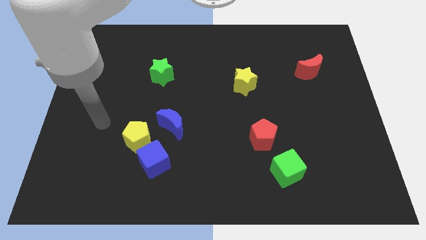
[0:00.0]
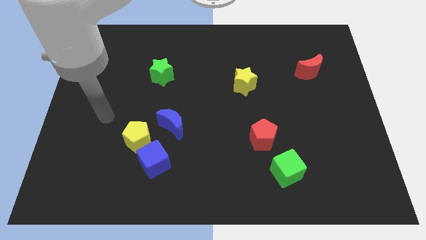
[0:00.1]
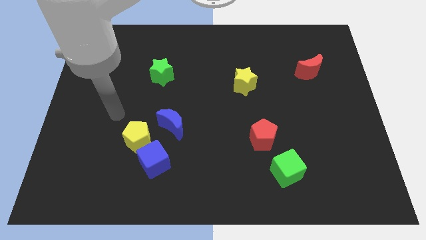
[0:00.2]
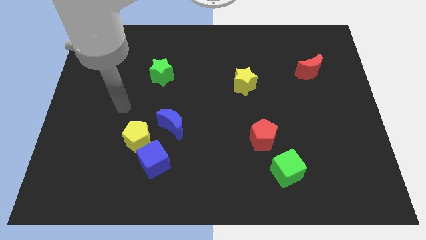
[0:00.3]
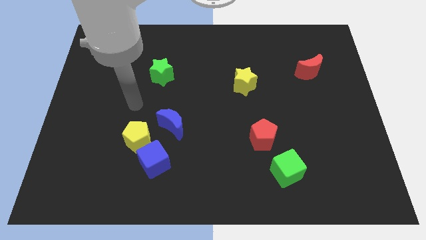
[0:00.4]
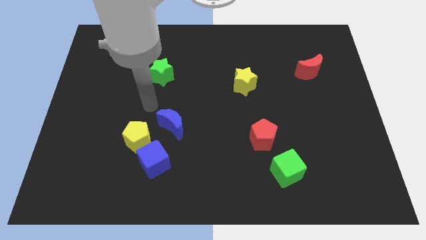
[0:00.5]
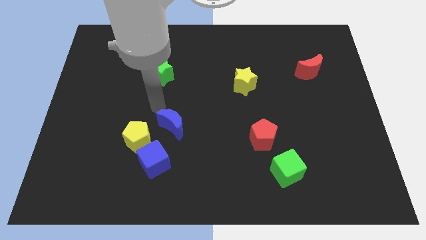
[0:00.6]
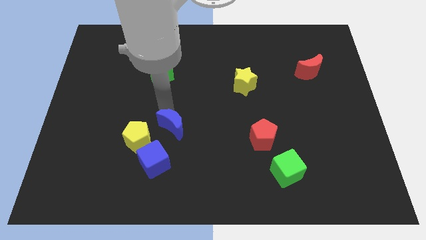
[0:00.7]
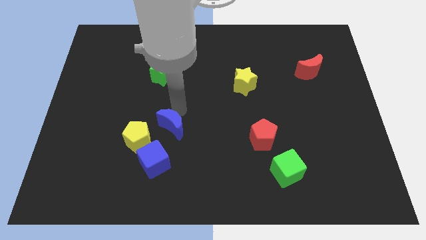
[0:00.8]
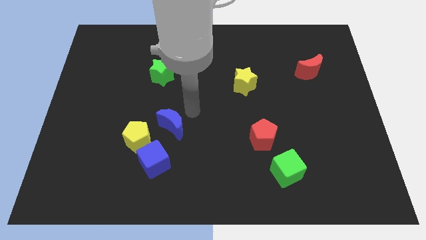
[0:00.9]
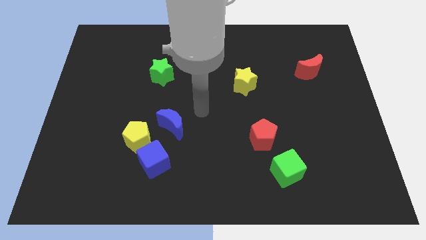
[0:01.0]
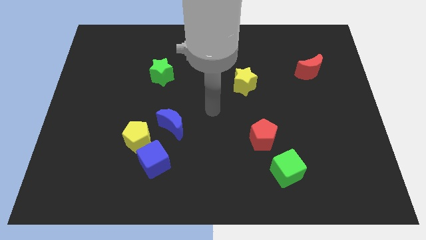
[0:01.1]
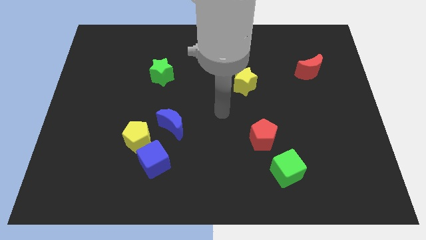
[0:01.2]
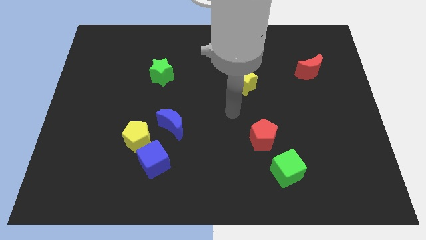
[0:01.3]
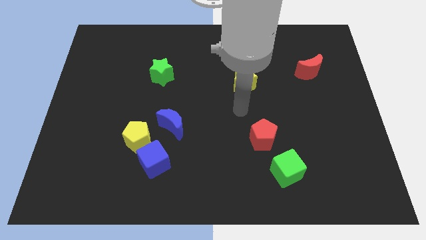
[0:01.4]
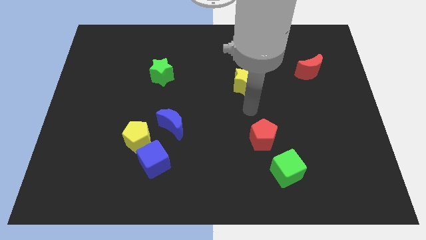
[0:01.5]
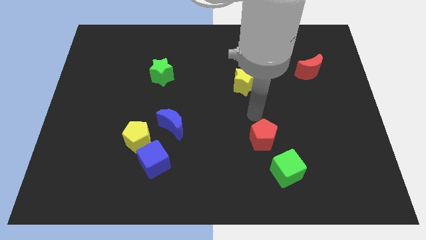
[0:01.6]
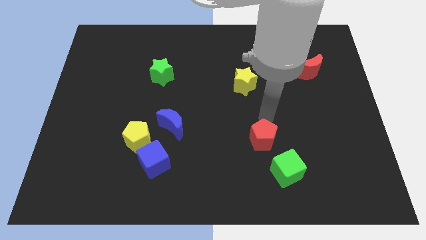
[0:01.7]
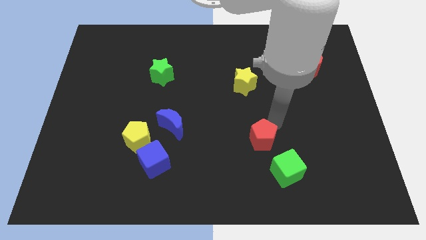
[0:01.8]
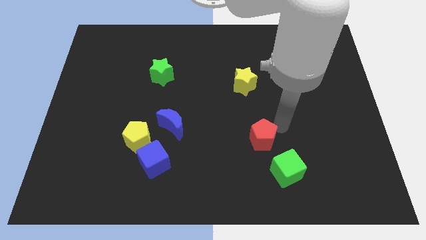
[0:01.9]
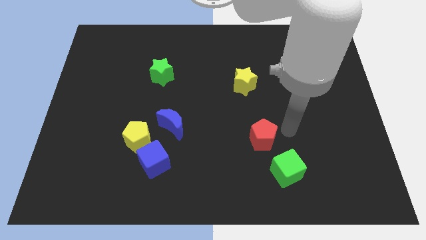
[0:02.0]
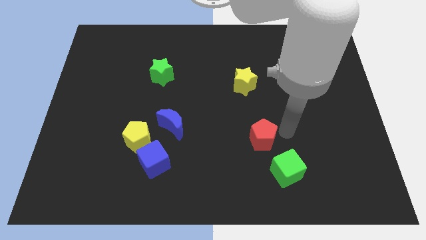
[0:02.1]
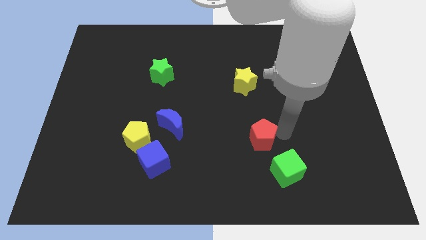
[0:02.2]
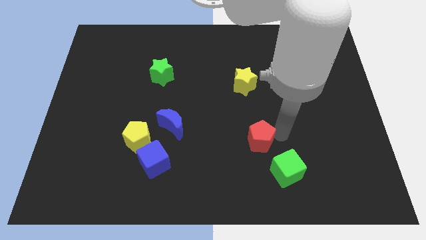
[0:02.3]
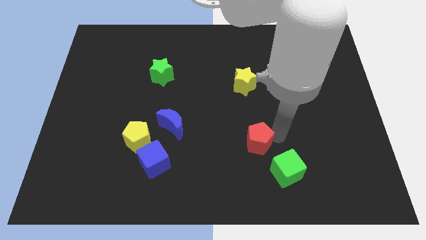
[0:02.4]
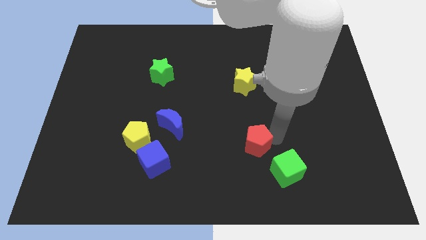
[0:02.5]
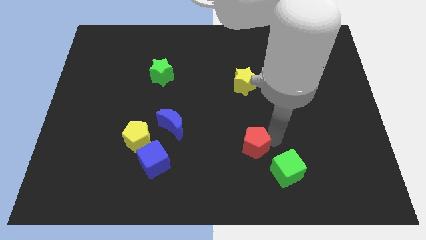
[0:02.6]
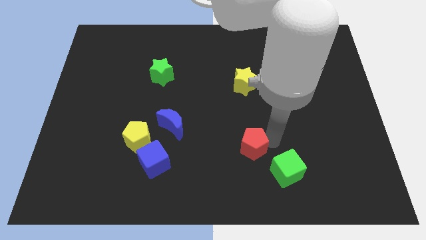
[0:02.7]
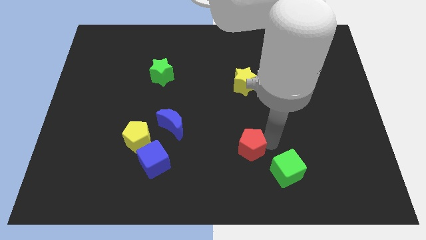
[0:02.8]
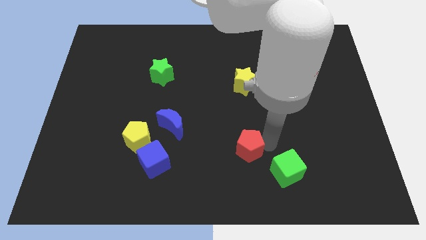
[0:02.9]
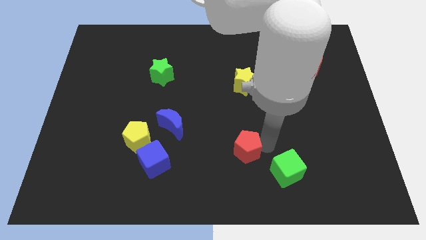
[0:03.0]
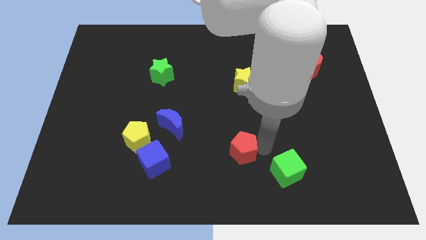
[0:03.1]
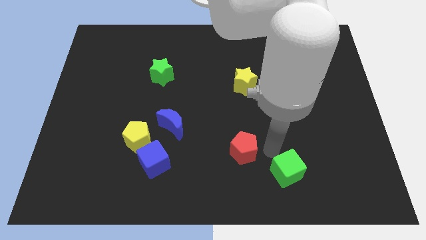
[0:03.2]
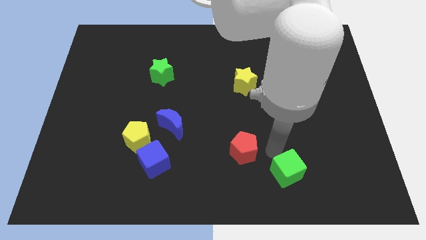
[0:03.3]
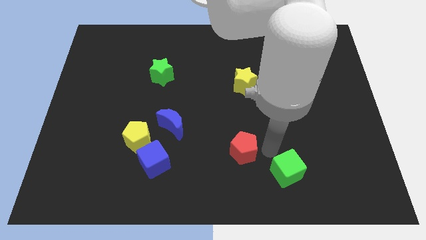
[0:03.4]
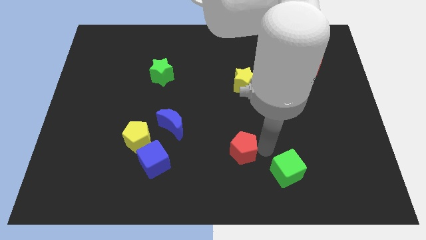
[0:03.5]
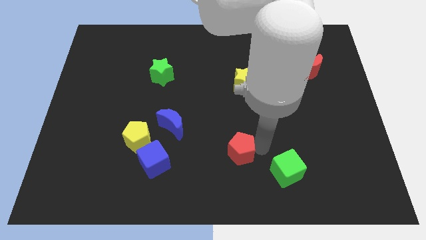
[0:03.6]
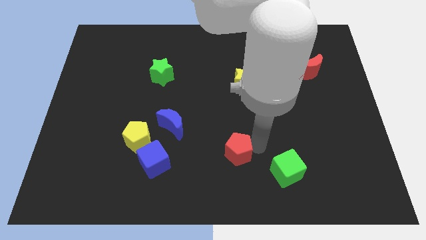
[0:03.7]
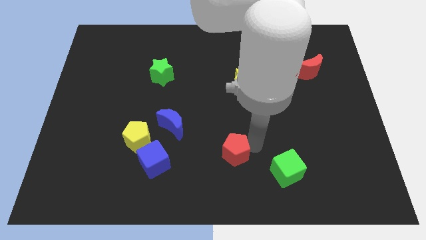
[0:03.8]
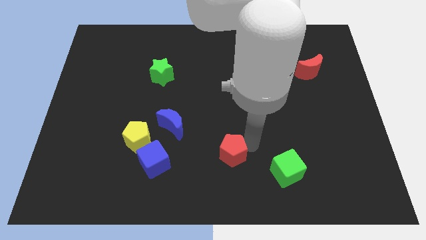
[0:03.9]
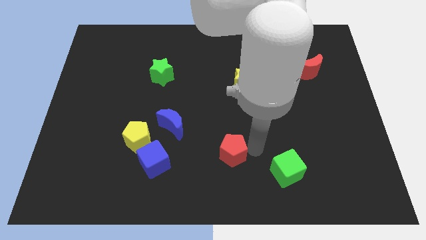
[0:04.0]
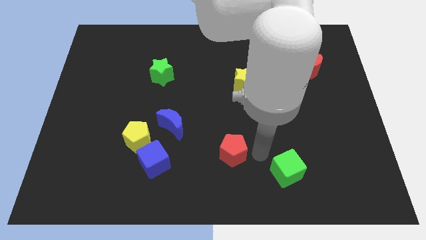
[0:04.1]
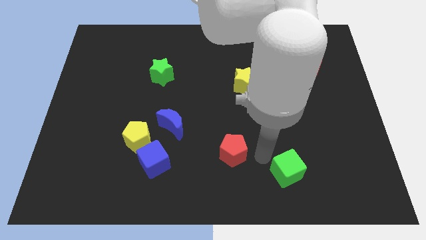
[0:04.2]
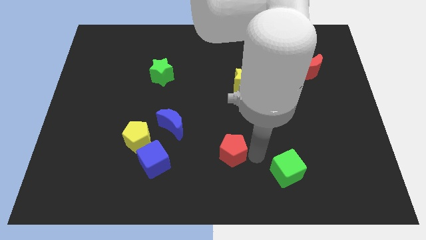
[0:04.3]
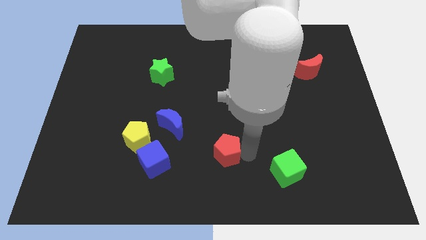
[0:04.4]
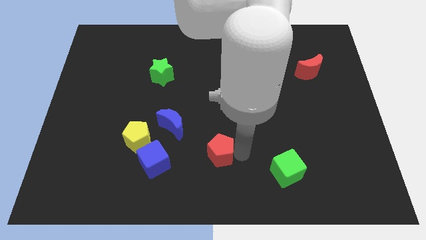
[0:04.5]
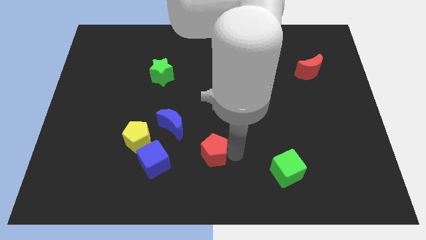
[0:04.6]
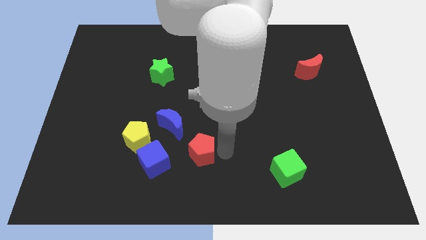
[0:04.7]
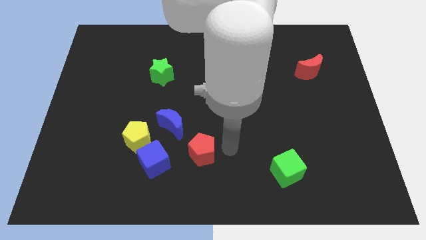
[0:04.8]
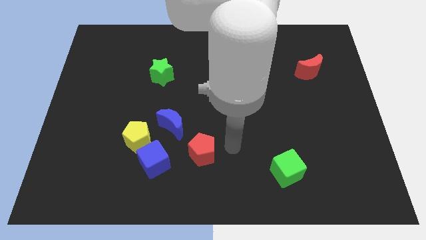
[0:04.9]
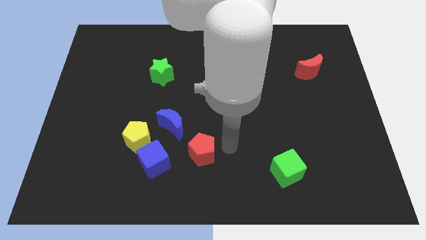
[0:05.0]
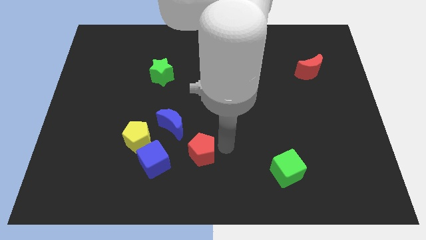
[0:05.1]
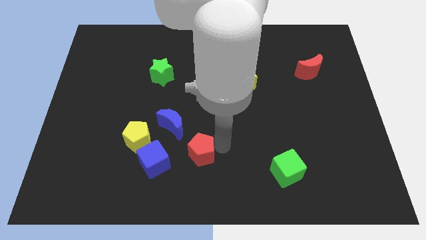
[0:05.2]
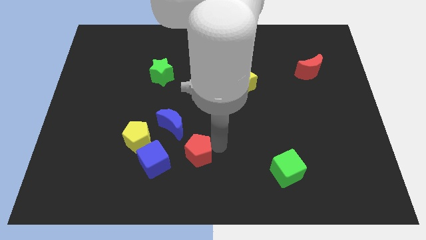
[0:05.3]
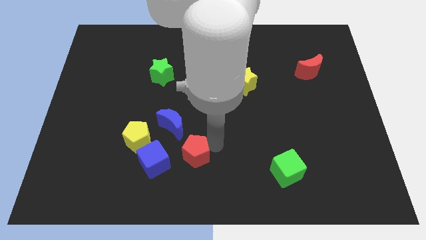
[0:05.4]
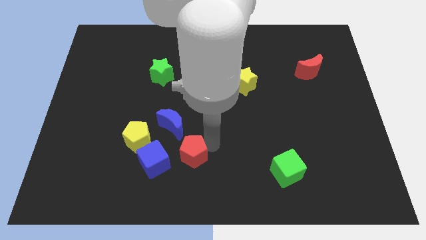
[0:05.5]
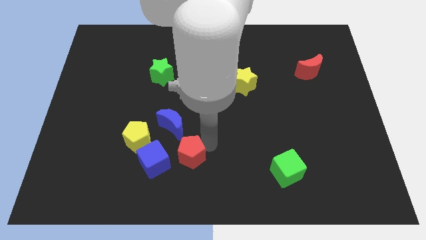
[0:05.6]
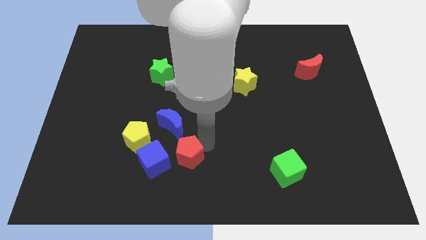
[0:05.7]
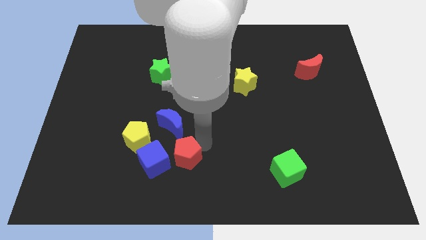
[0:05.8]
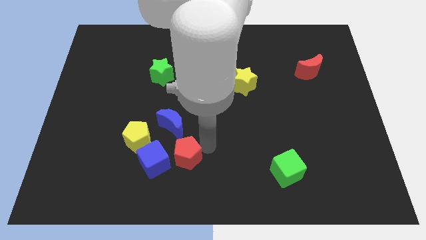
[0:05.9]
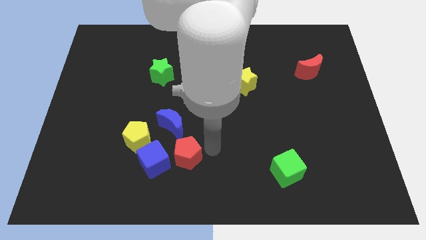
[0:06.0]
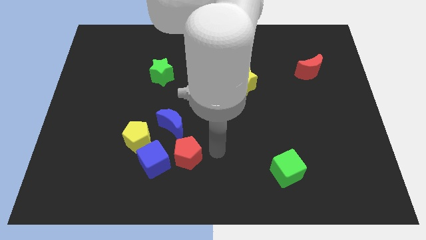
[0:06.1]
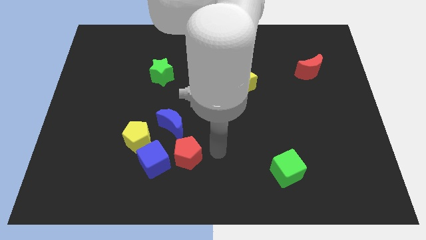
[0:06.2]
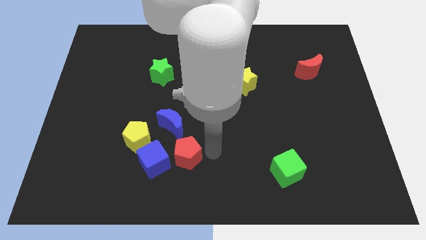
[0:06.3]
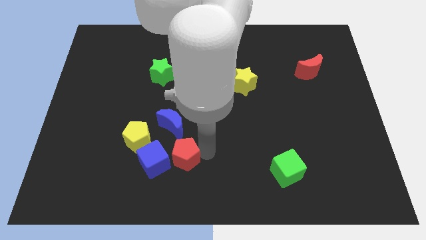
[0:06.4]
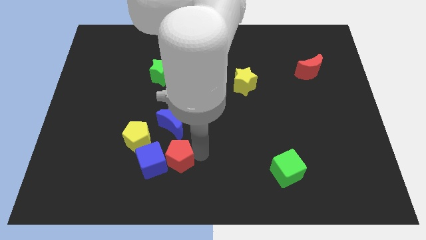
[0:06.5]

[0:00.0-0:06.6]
push the red pentagon to the blue cube
